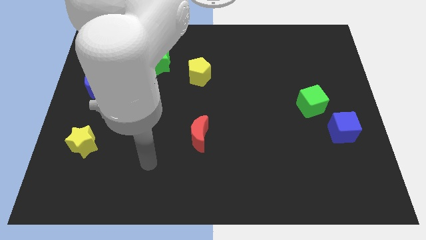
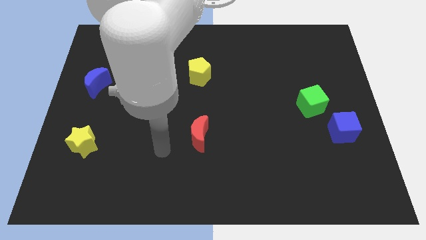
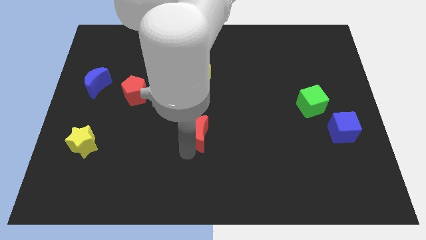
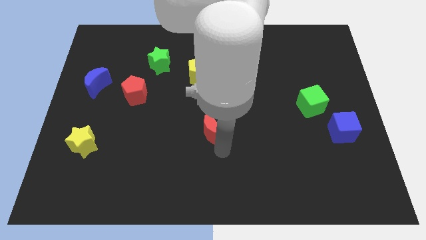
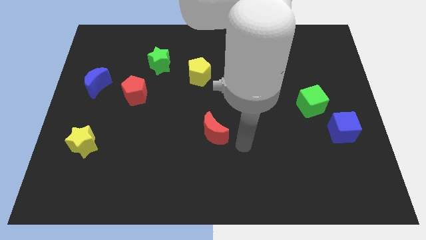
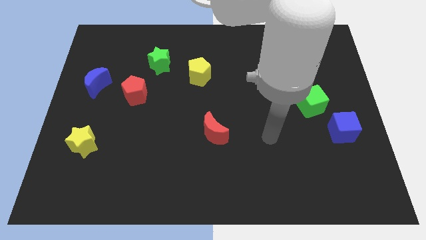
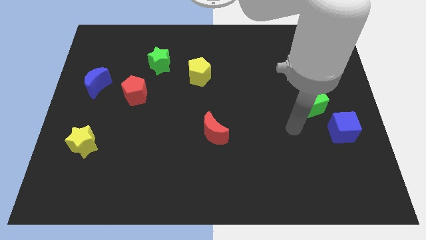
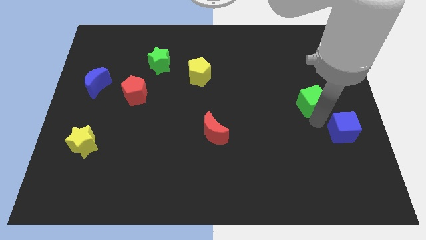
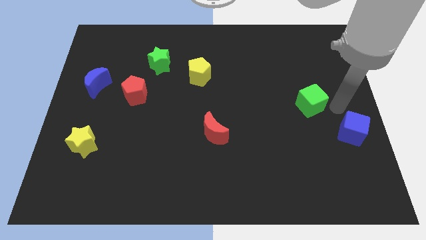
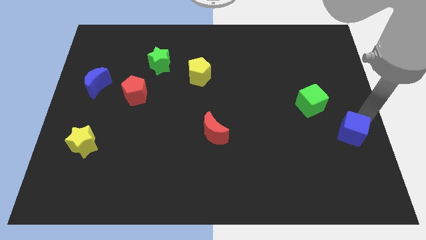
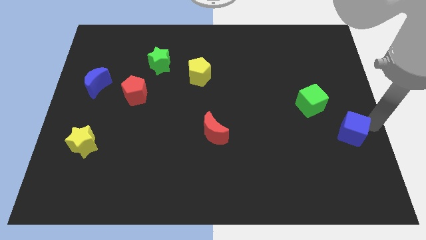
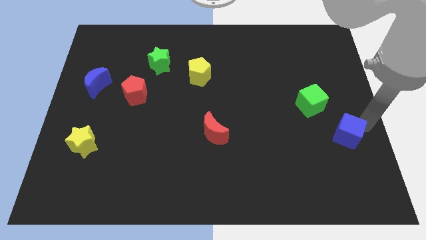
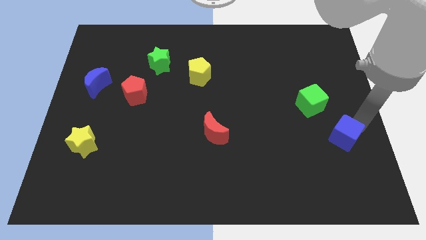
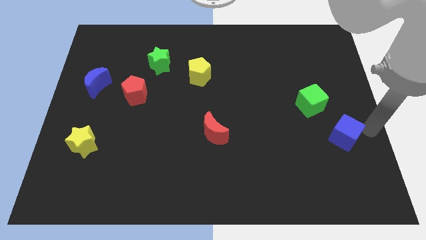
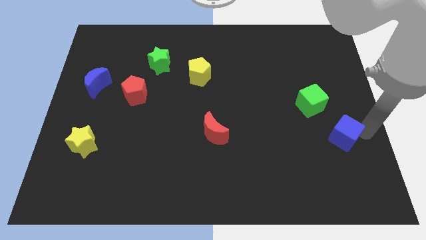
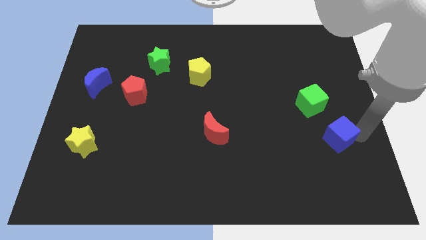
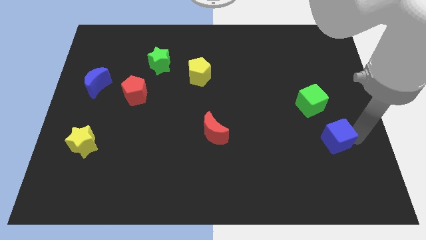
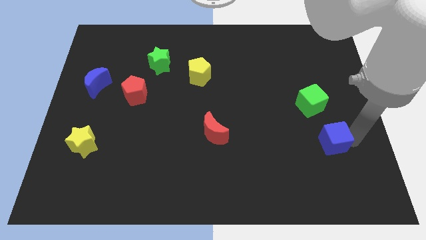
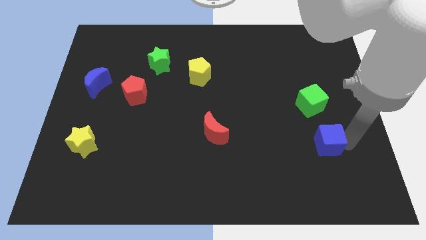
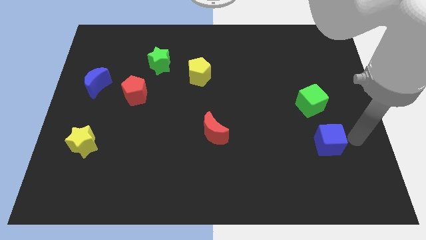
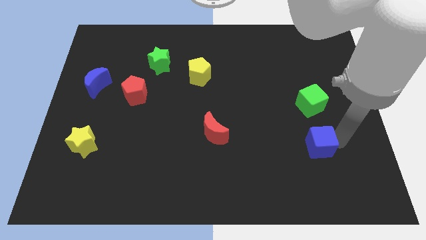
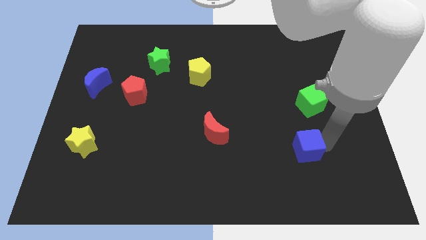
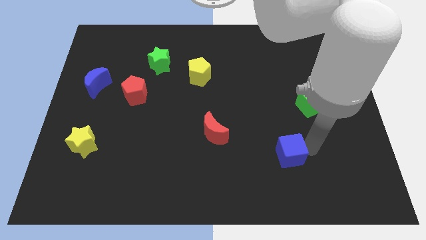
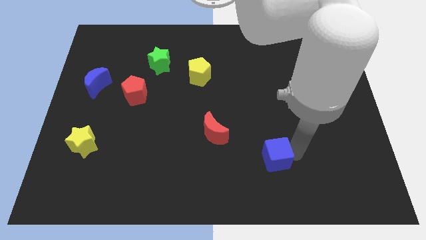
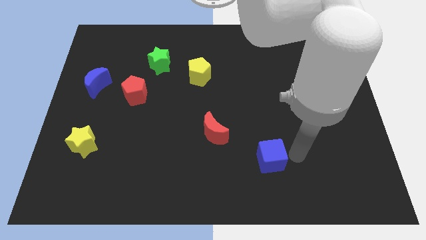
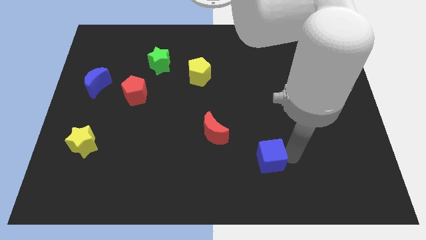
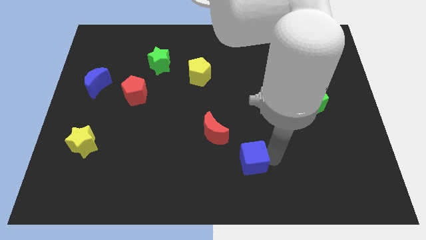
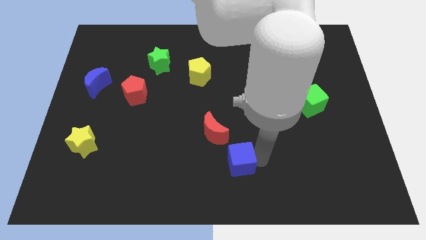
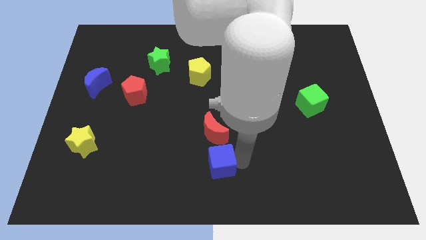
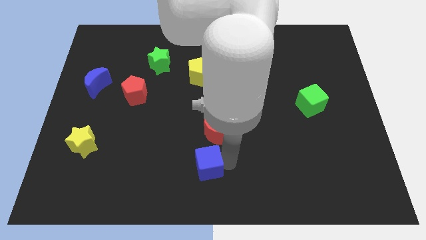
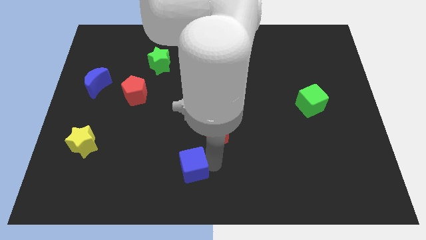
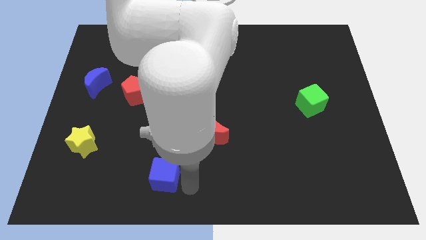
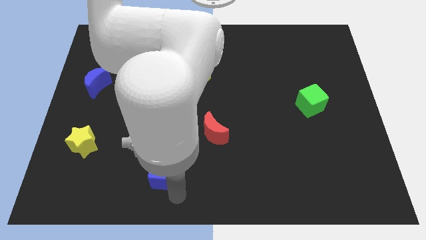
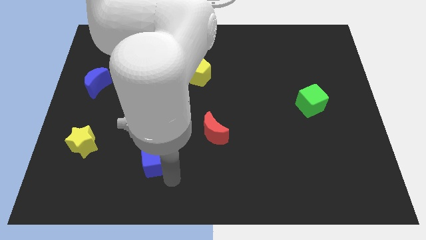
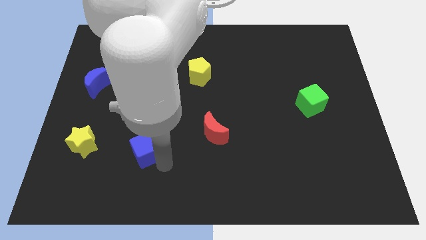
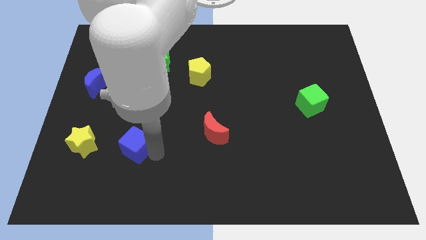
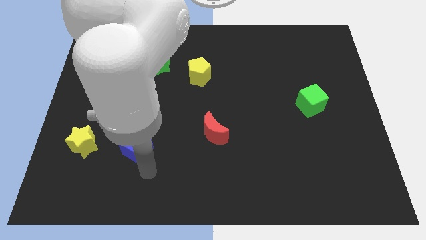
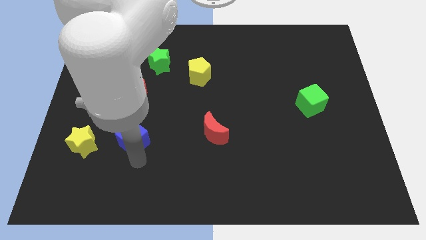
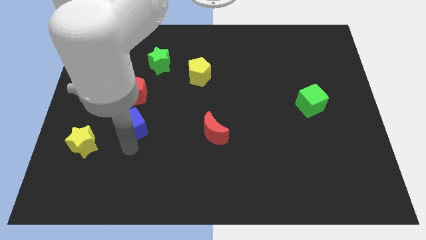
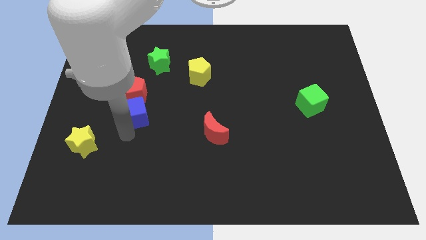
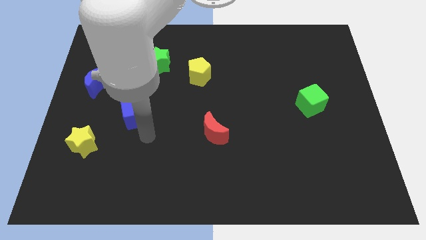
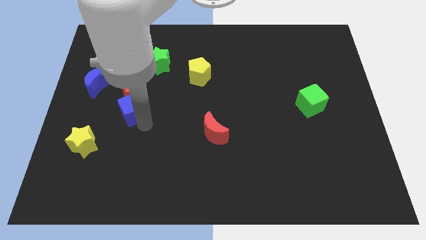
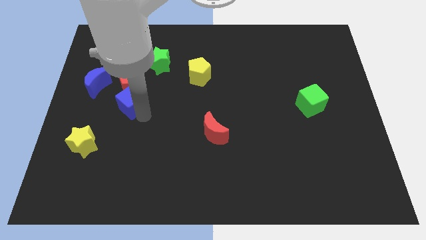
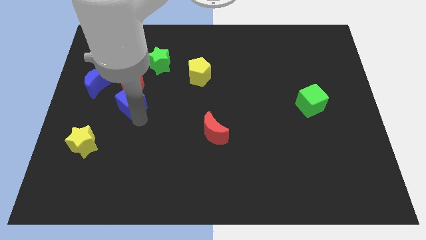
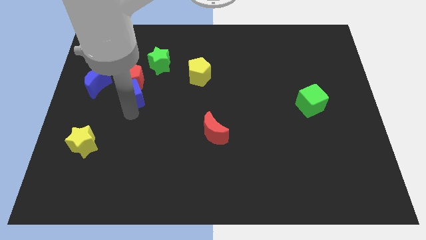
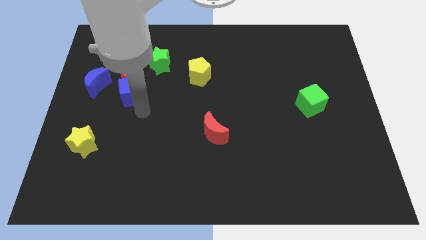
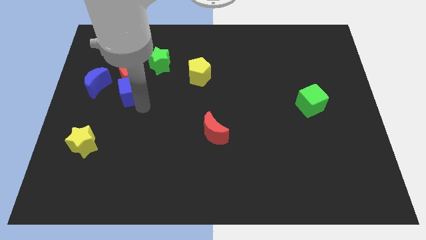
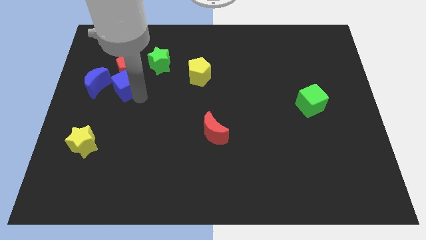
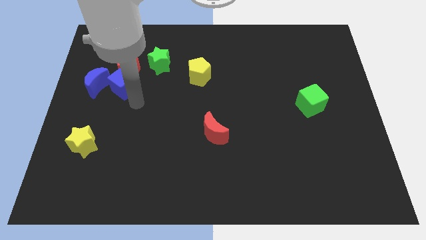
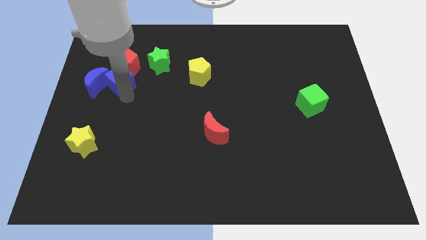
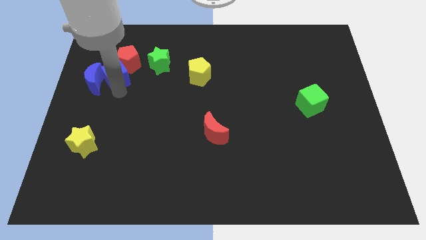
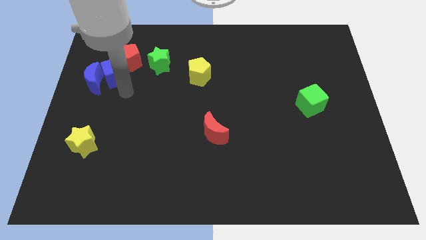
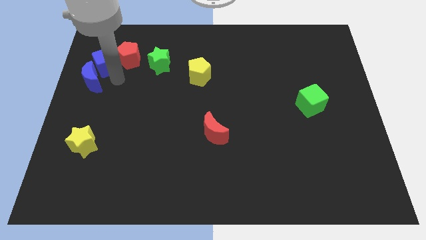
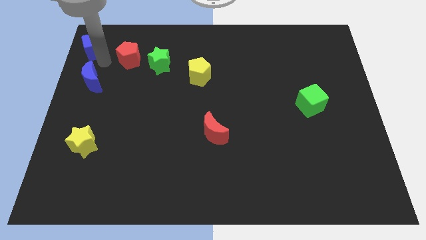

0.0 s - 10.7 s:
push the blue cube to the top left of the board

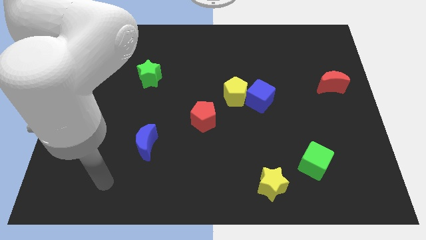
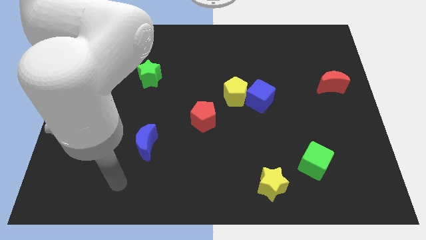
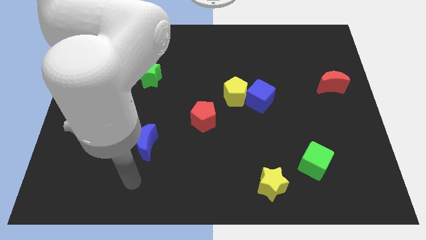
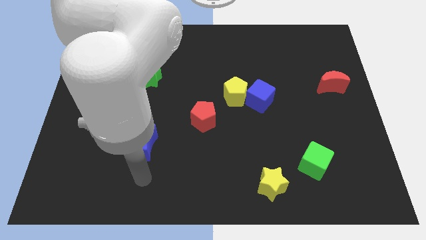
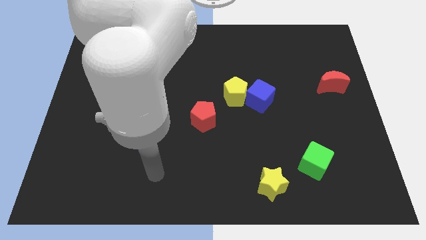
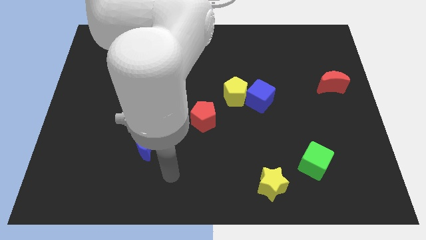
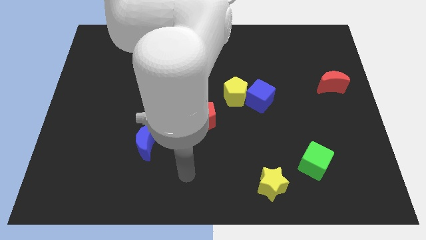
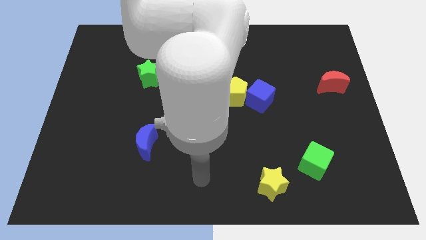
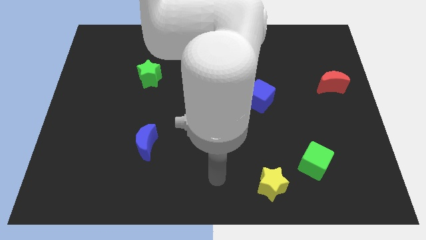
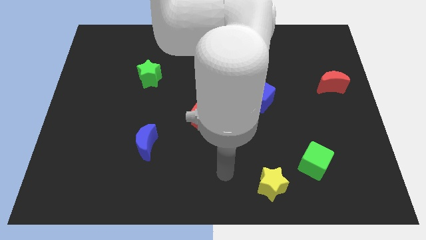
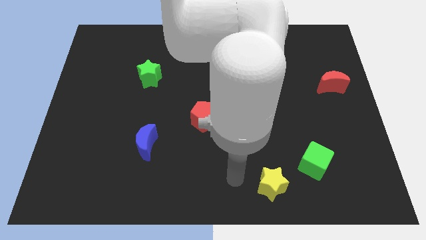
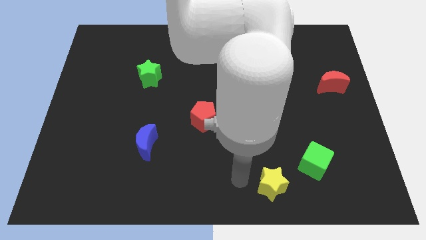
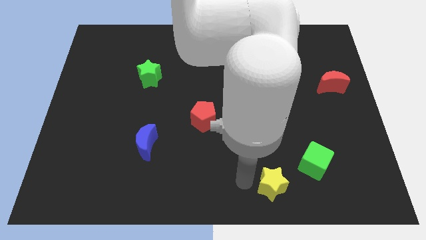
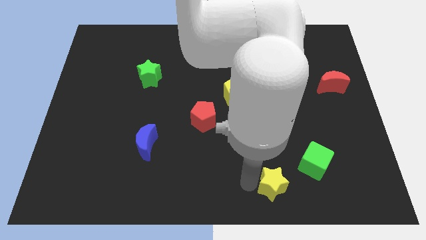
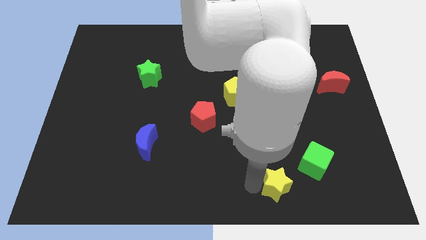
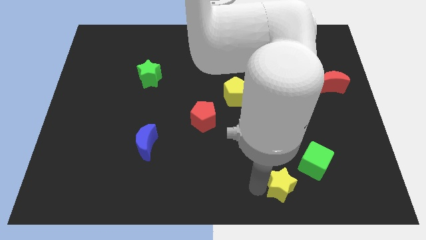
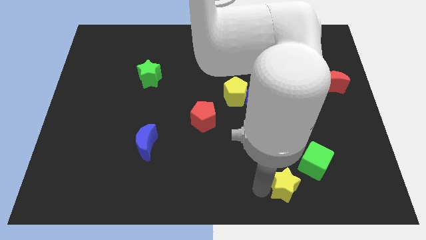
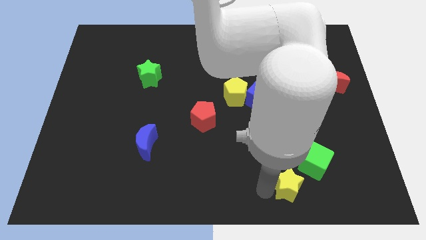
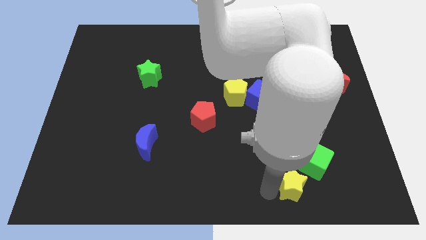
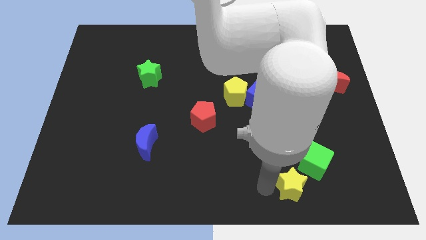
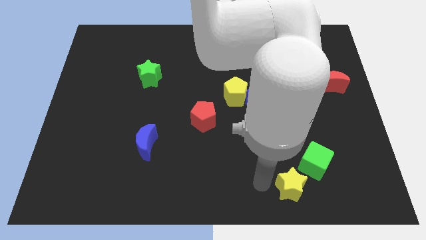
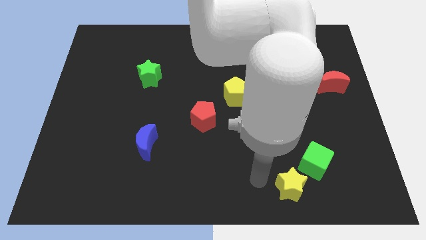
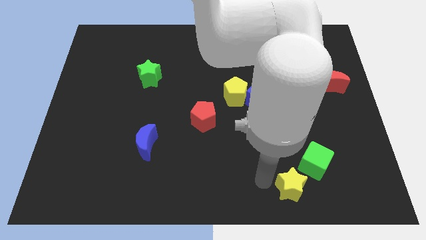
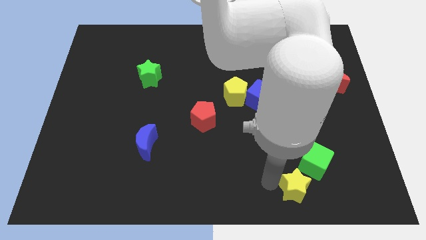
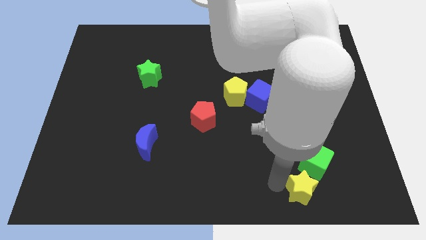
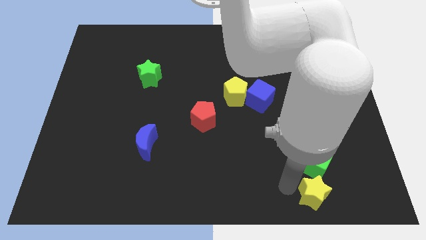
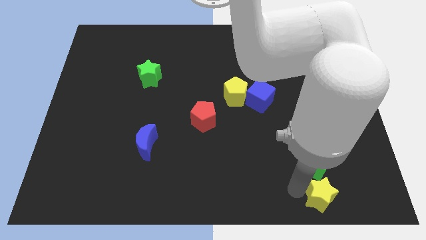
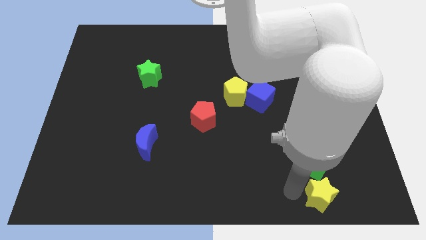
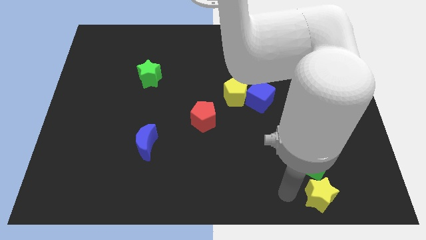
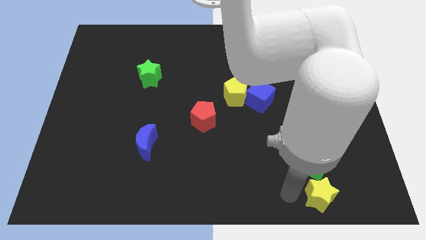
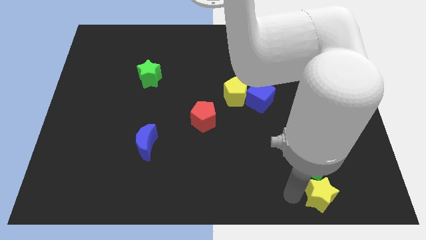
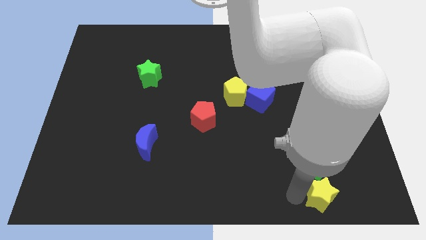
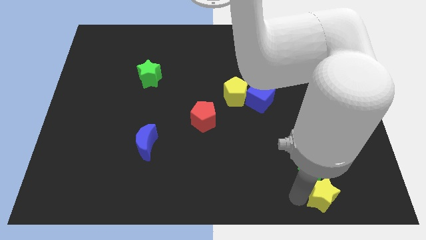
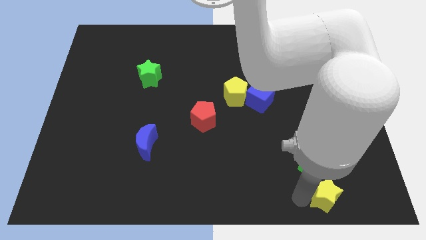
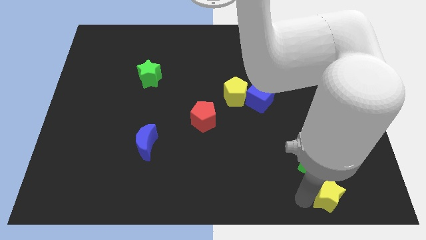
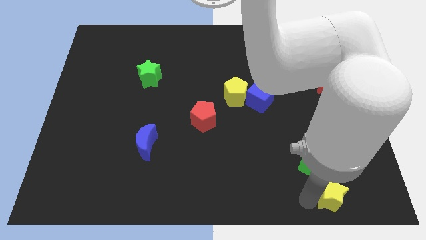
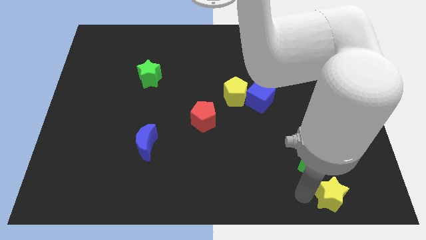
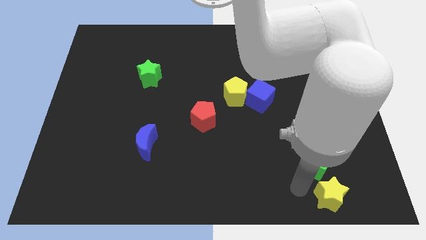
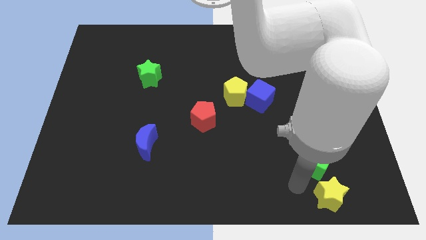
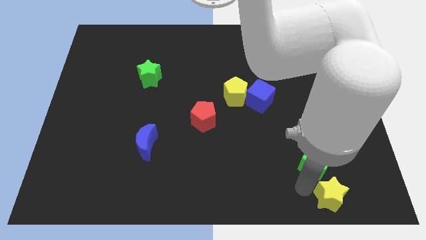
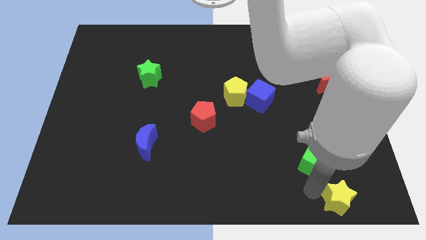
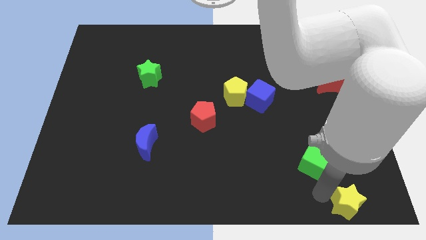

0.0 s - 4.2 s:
move the yellow star to the bottom right of the board
